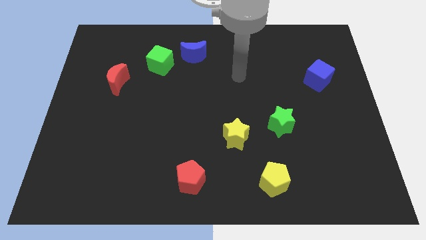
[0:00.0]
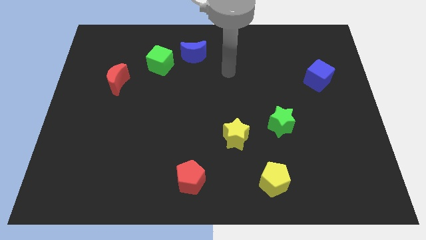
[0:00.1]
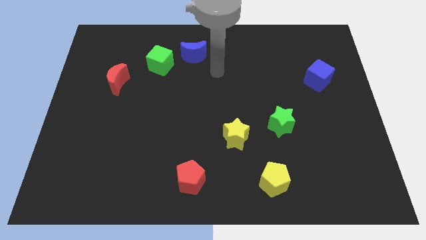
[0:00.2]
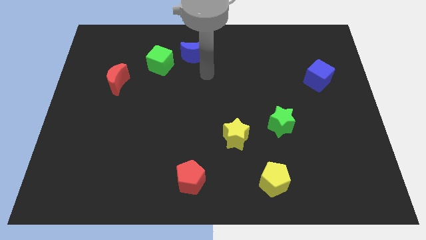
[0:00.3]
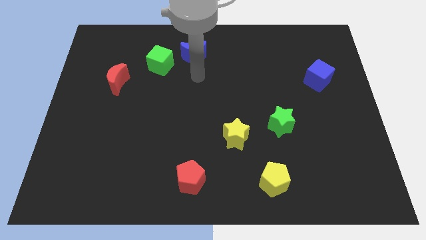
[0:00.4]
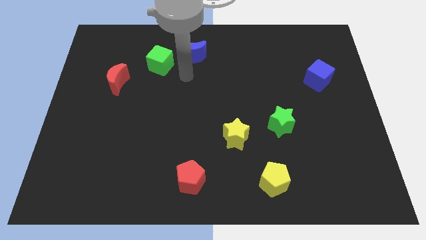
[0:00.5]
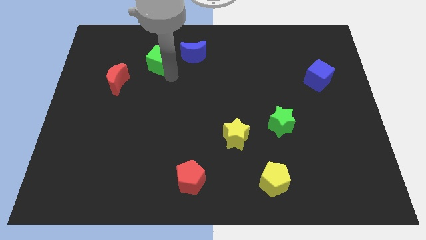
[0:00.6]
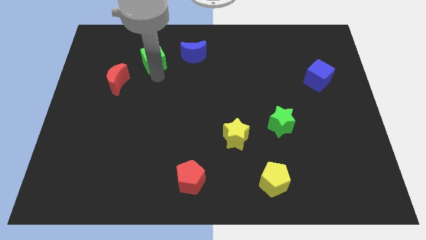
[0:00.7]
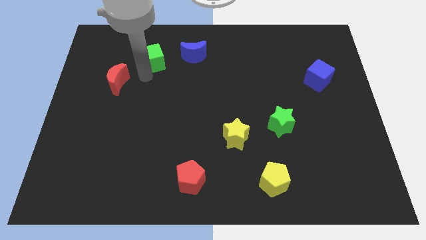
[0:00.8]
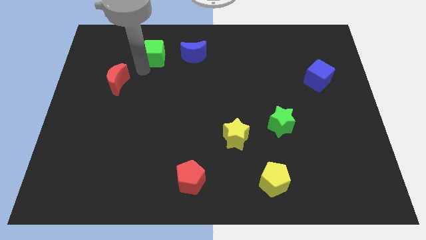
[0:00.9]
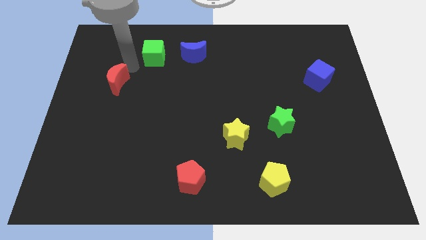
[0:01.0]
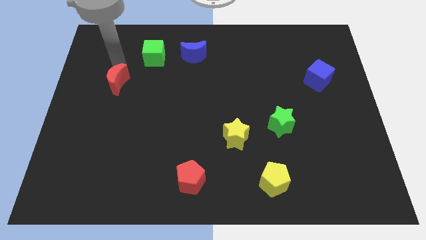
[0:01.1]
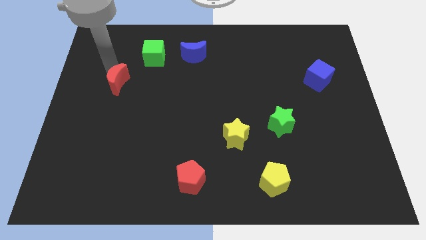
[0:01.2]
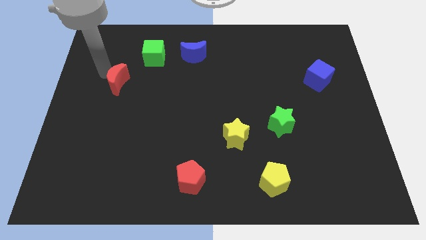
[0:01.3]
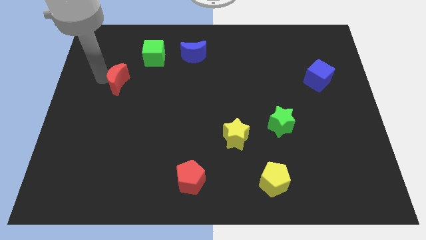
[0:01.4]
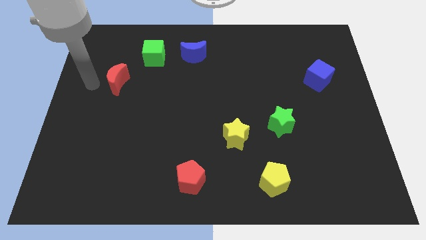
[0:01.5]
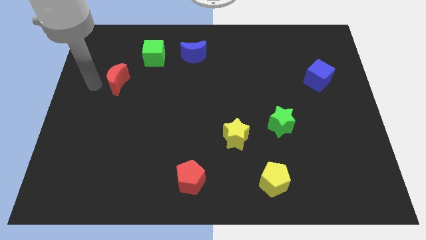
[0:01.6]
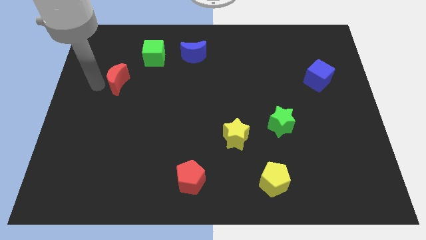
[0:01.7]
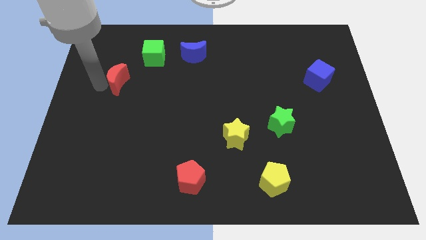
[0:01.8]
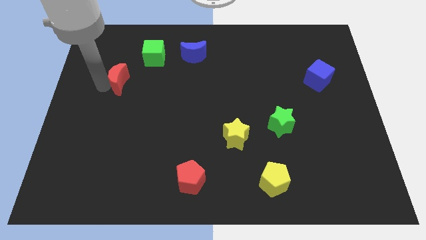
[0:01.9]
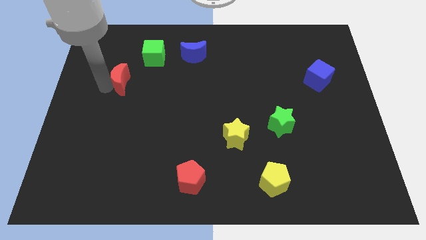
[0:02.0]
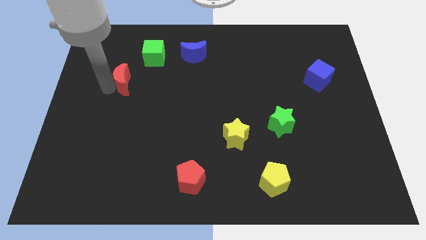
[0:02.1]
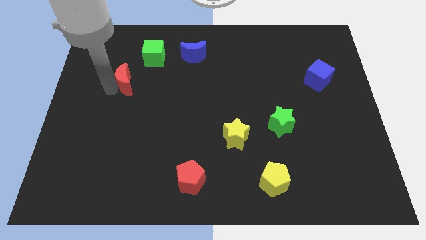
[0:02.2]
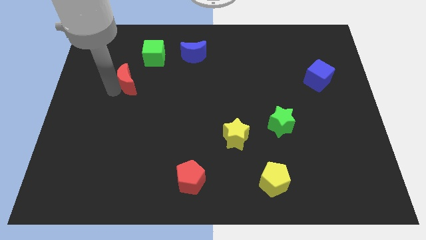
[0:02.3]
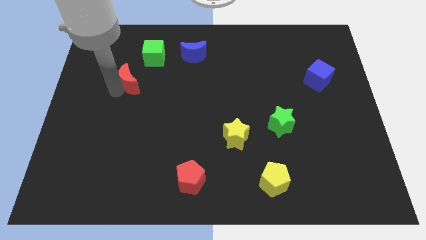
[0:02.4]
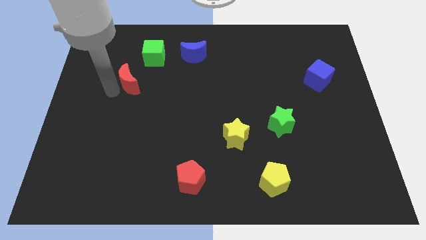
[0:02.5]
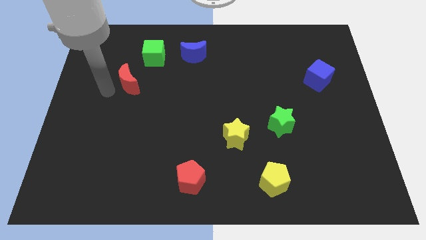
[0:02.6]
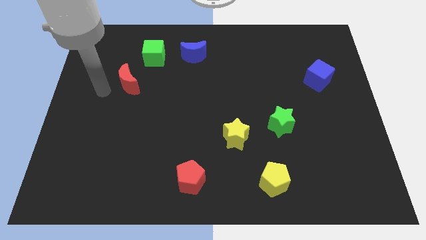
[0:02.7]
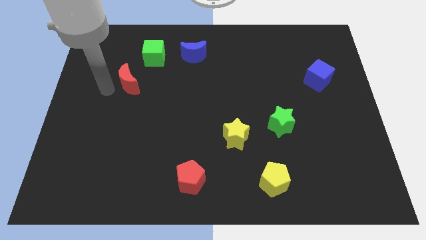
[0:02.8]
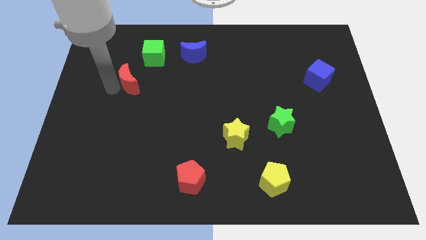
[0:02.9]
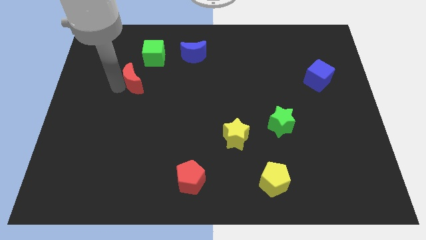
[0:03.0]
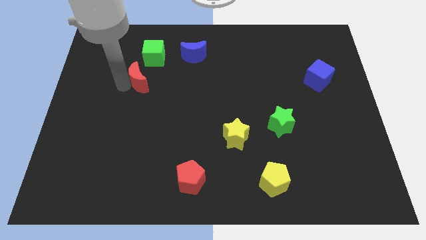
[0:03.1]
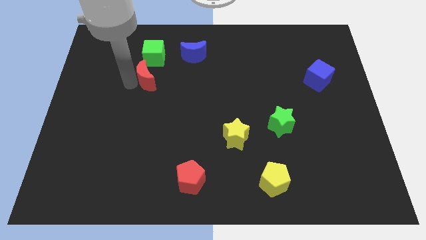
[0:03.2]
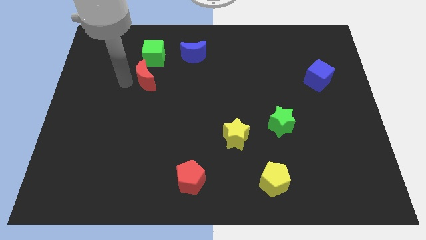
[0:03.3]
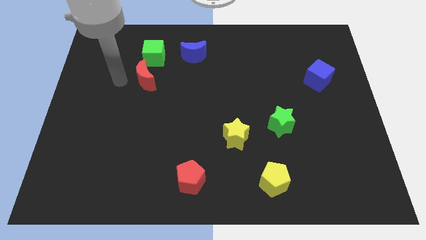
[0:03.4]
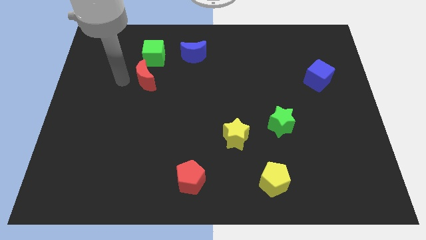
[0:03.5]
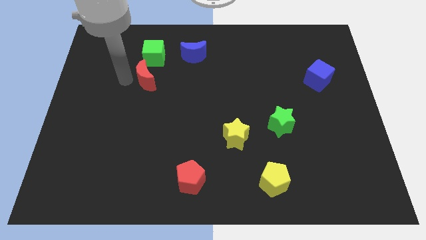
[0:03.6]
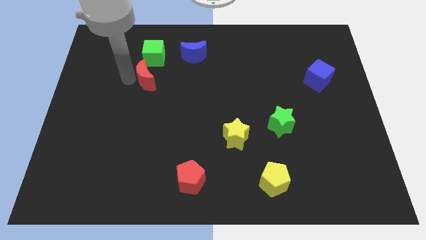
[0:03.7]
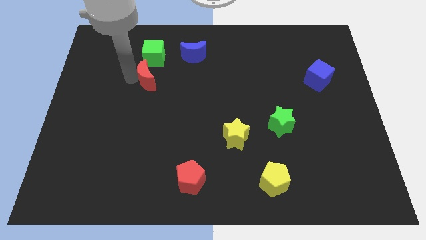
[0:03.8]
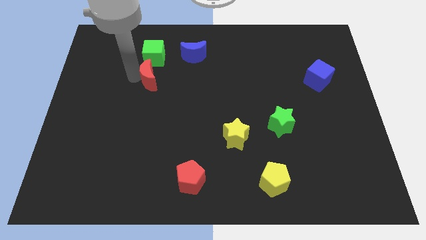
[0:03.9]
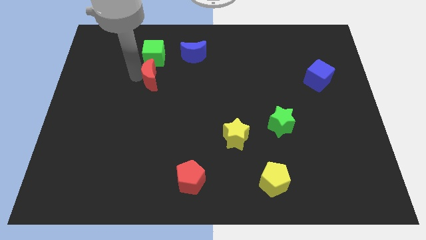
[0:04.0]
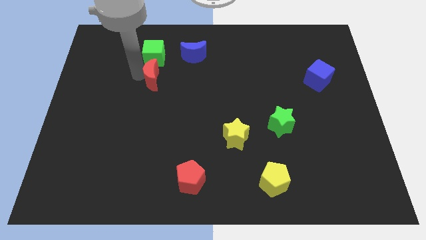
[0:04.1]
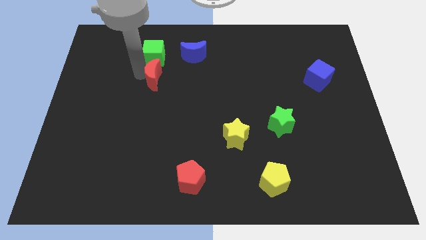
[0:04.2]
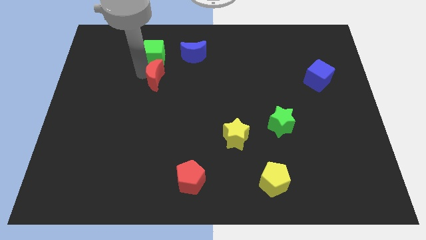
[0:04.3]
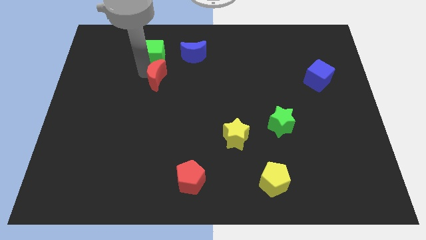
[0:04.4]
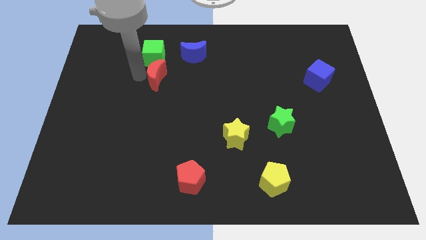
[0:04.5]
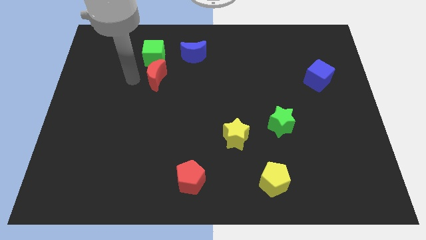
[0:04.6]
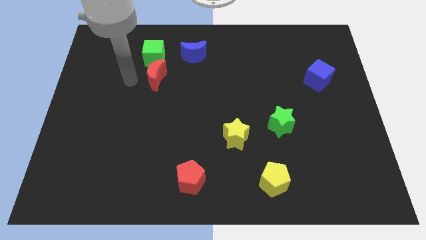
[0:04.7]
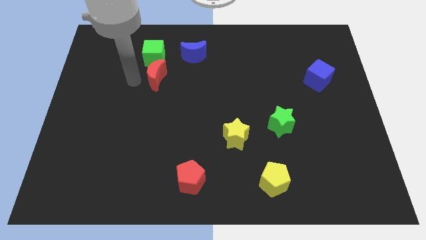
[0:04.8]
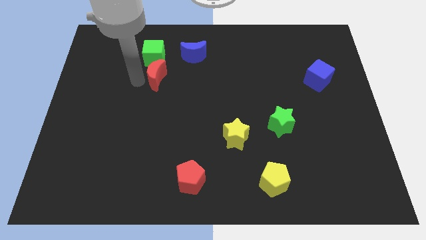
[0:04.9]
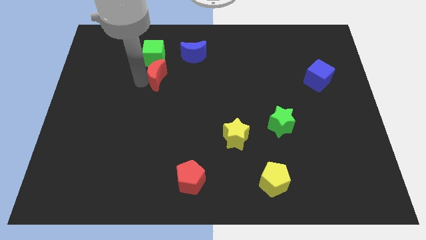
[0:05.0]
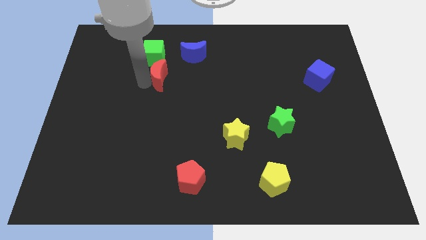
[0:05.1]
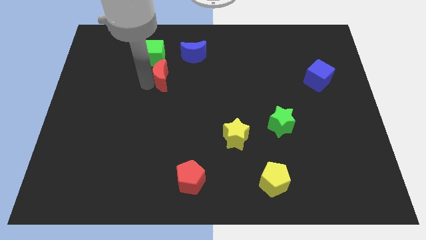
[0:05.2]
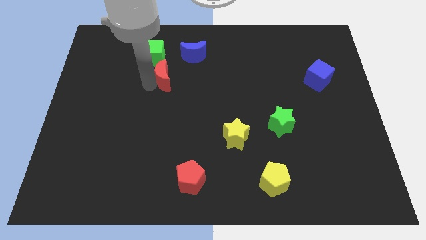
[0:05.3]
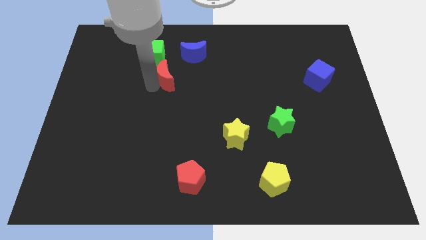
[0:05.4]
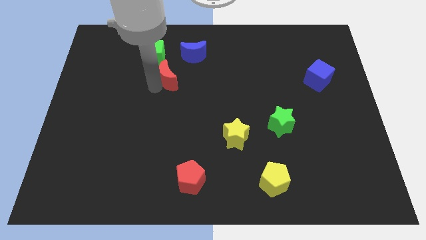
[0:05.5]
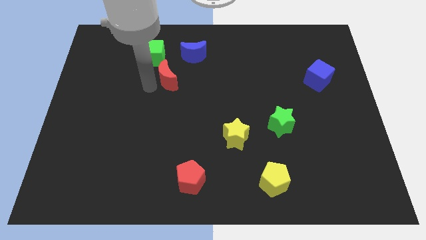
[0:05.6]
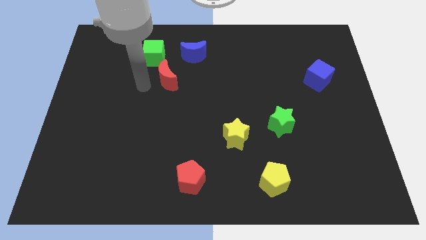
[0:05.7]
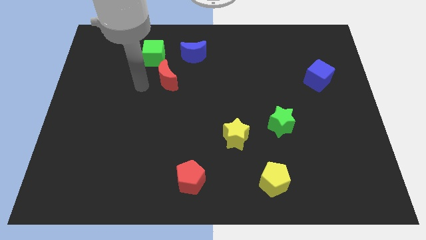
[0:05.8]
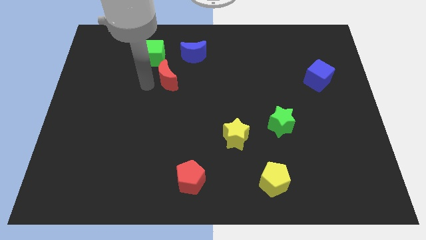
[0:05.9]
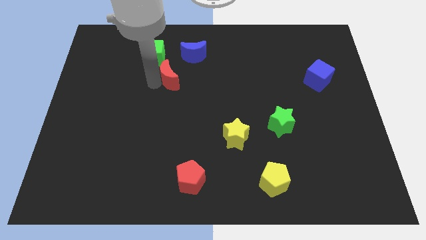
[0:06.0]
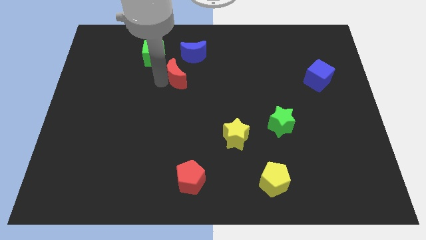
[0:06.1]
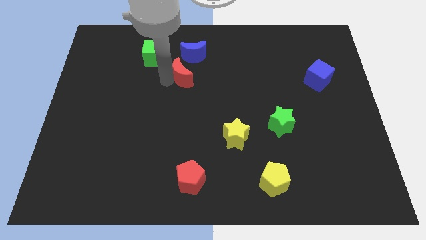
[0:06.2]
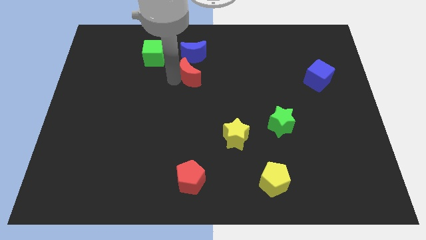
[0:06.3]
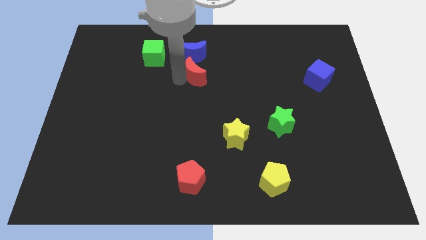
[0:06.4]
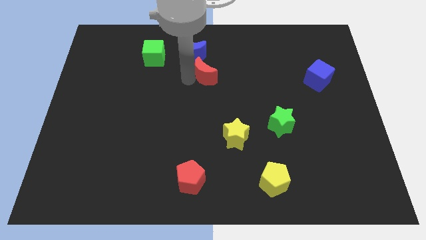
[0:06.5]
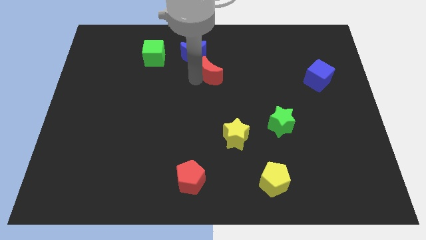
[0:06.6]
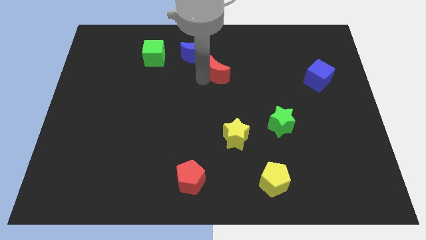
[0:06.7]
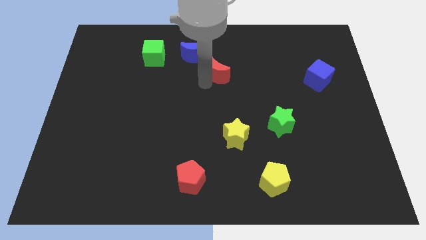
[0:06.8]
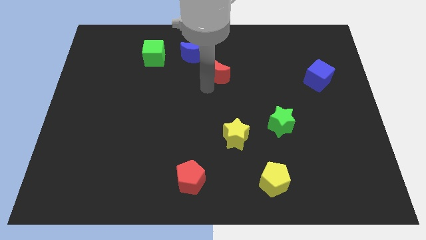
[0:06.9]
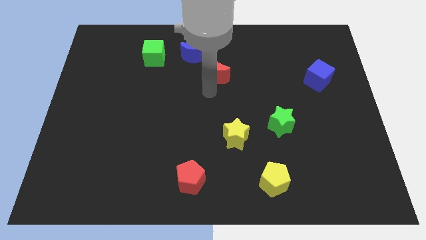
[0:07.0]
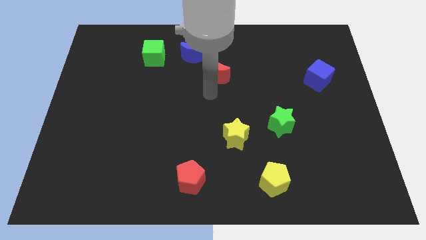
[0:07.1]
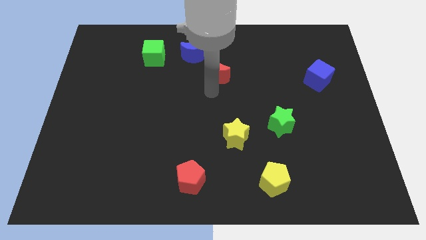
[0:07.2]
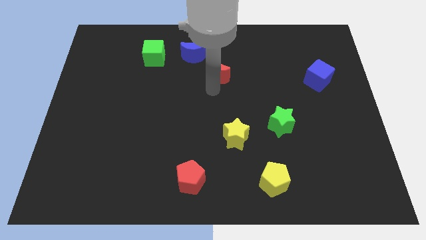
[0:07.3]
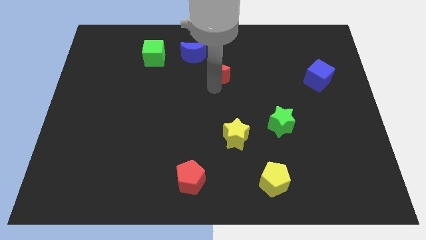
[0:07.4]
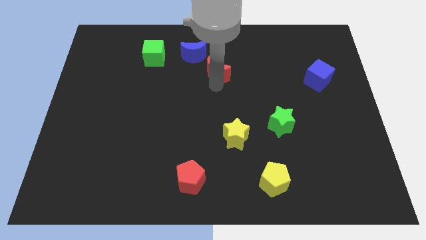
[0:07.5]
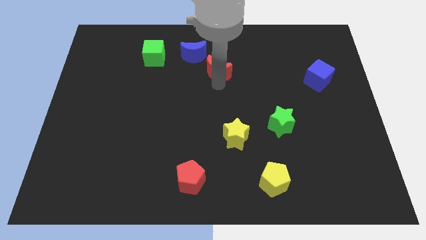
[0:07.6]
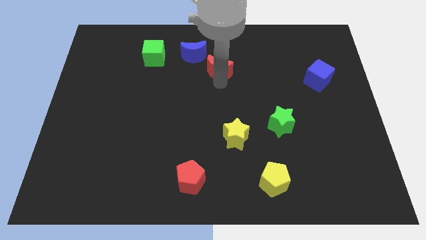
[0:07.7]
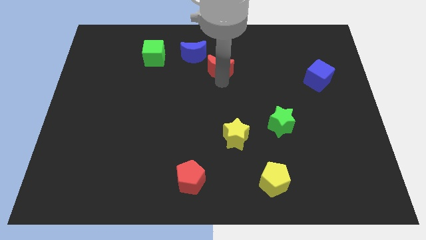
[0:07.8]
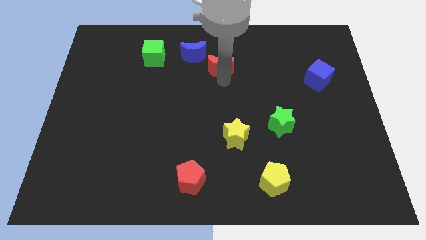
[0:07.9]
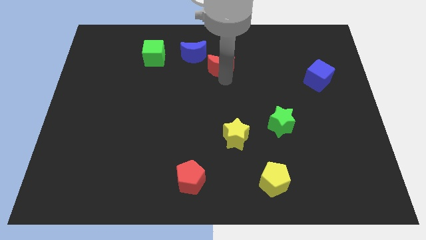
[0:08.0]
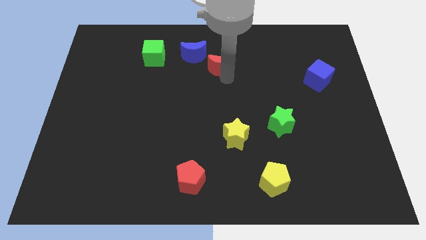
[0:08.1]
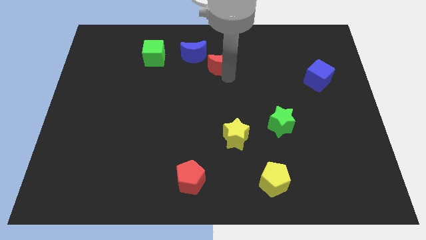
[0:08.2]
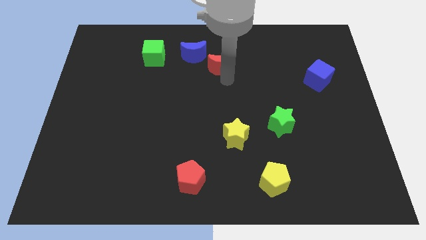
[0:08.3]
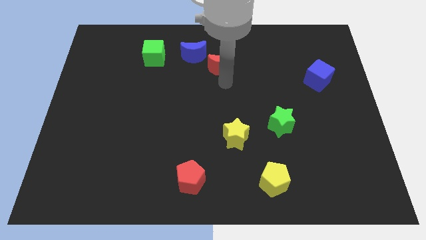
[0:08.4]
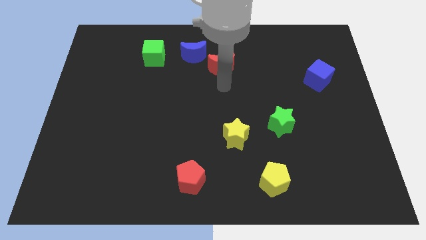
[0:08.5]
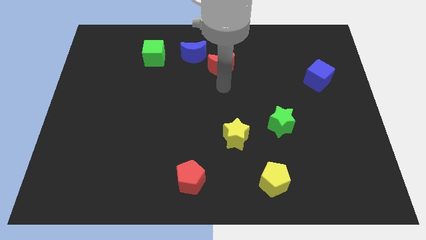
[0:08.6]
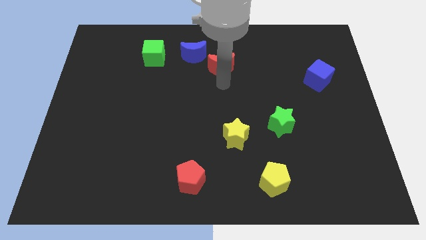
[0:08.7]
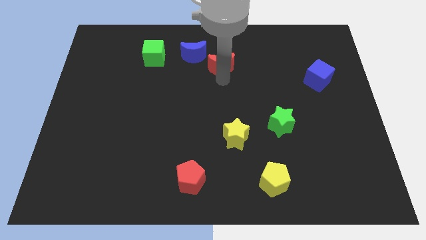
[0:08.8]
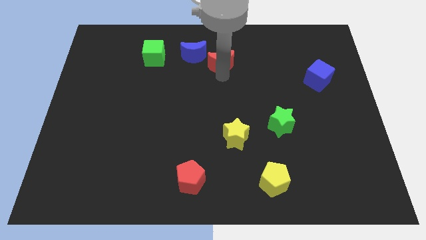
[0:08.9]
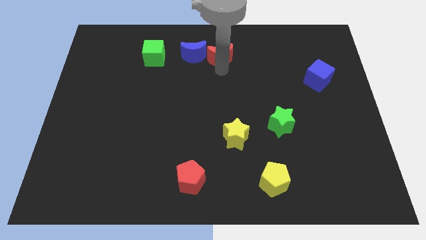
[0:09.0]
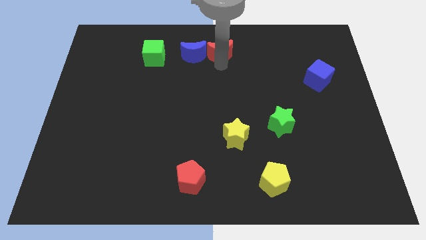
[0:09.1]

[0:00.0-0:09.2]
slide the red moon to the towards your base
